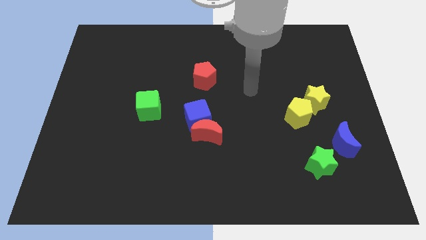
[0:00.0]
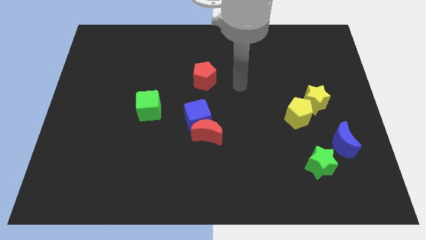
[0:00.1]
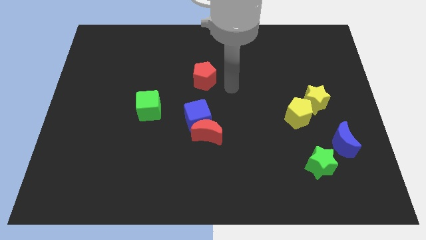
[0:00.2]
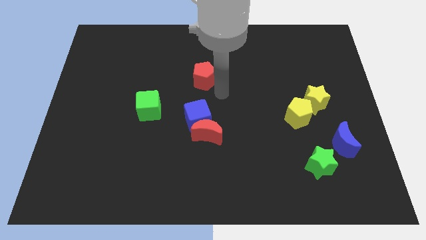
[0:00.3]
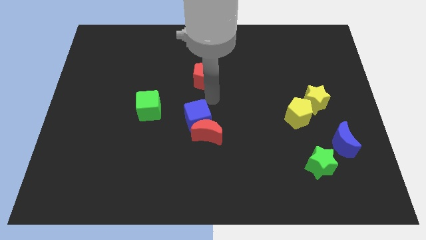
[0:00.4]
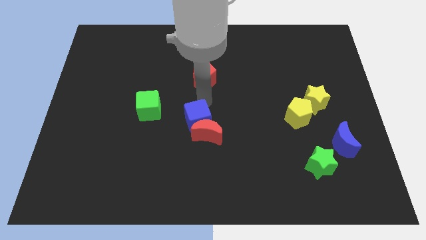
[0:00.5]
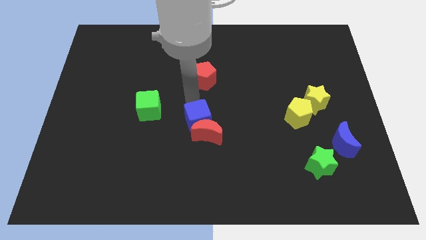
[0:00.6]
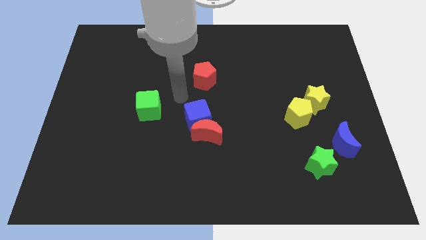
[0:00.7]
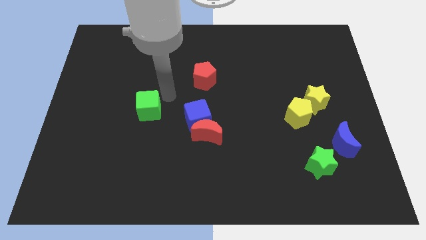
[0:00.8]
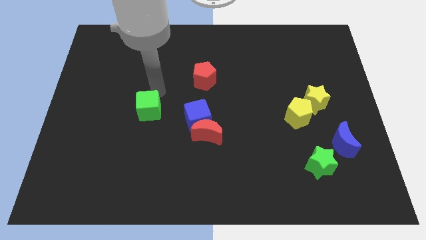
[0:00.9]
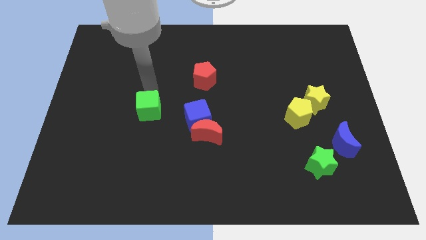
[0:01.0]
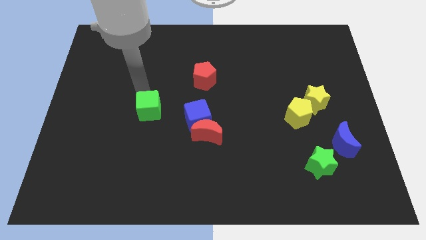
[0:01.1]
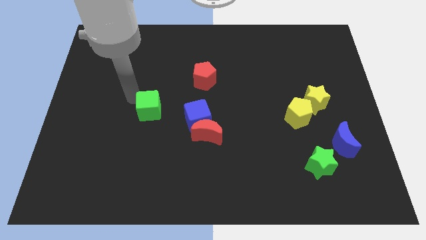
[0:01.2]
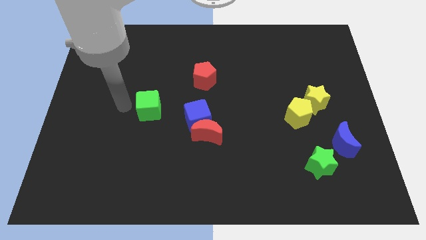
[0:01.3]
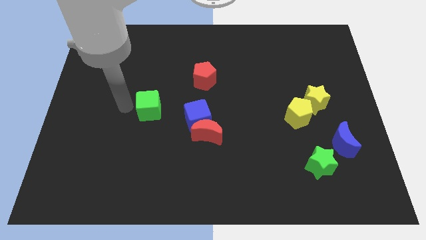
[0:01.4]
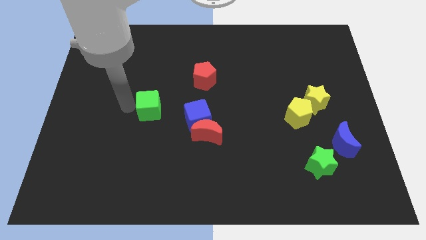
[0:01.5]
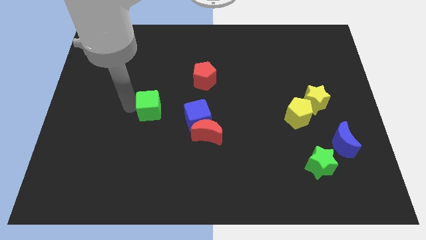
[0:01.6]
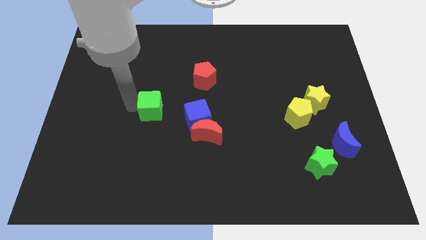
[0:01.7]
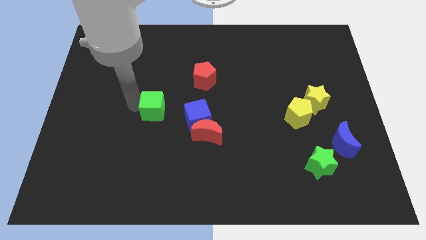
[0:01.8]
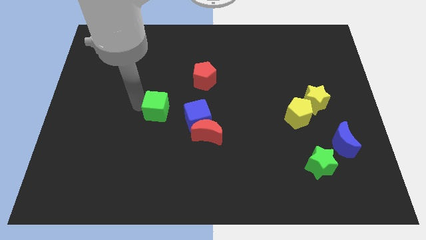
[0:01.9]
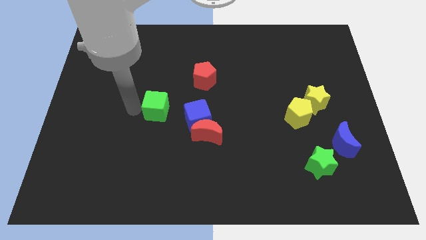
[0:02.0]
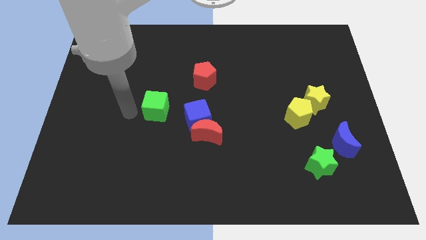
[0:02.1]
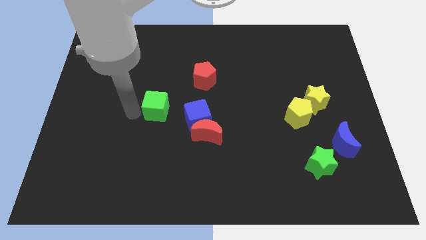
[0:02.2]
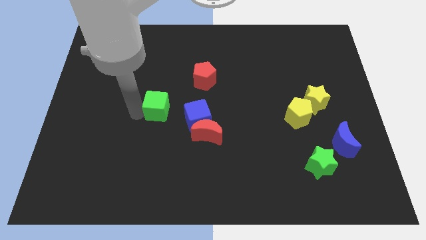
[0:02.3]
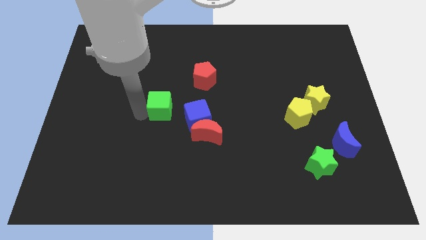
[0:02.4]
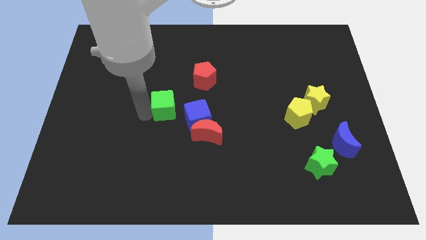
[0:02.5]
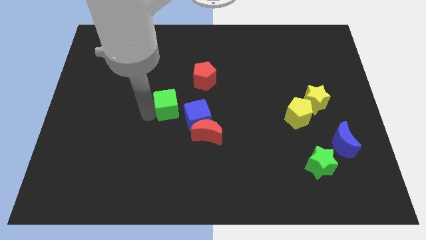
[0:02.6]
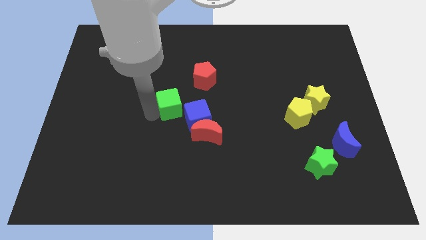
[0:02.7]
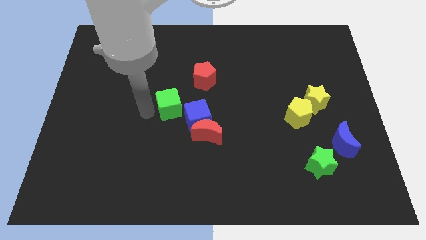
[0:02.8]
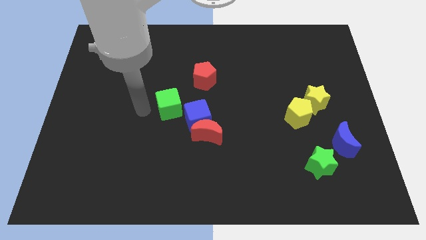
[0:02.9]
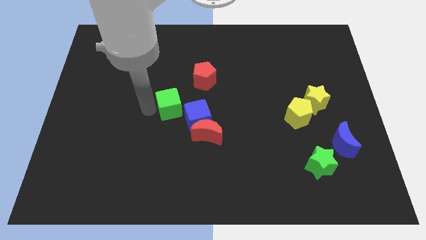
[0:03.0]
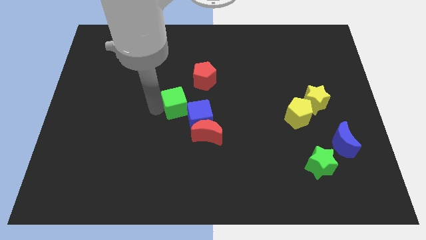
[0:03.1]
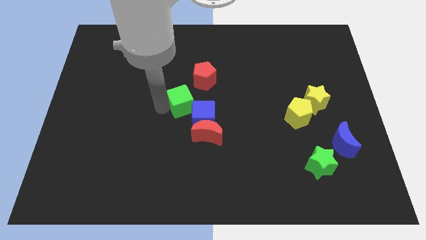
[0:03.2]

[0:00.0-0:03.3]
push the green cube to the right a bit

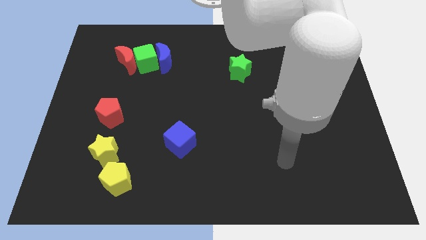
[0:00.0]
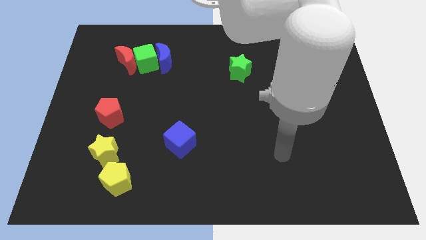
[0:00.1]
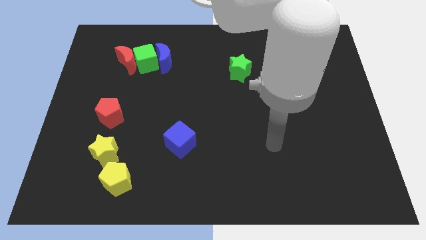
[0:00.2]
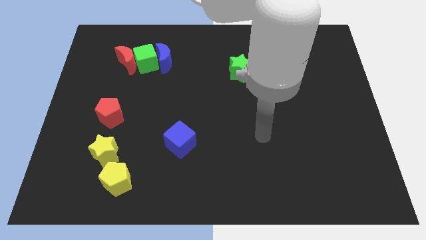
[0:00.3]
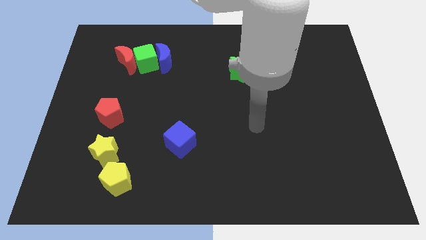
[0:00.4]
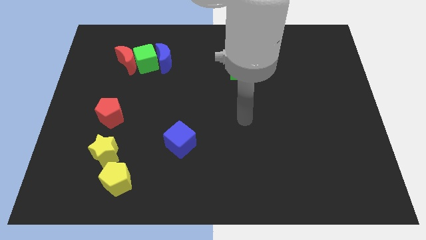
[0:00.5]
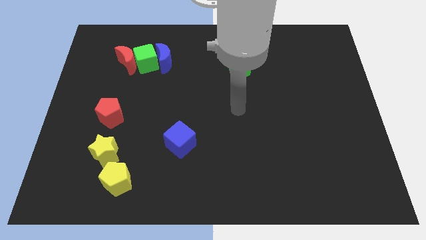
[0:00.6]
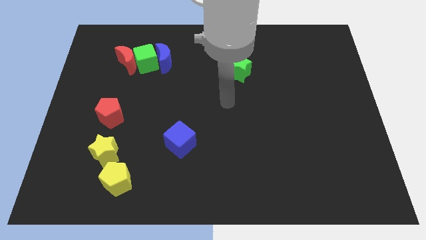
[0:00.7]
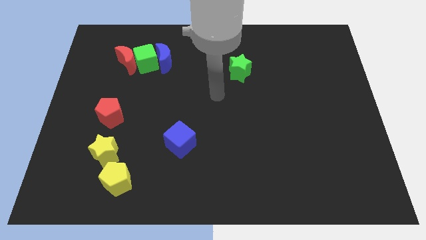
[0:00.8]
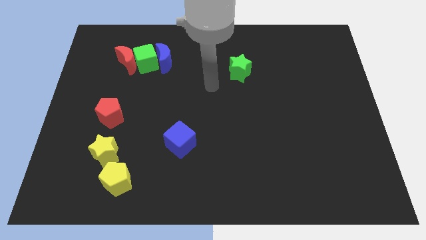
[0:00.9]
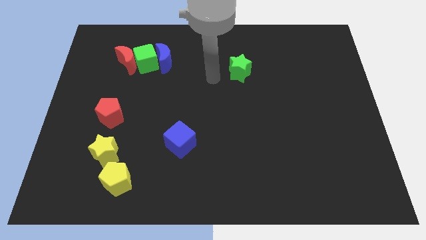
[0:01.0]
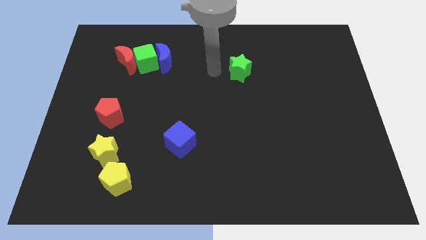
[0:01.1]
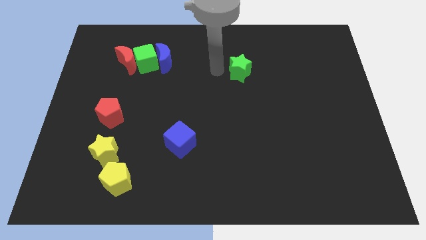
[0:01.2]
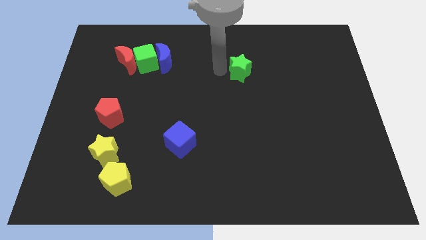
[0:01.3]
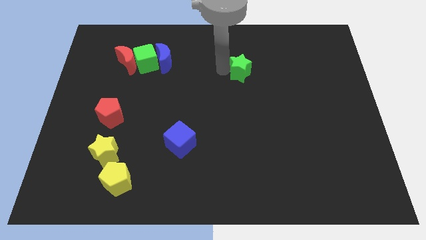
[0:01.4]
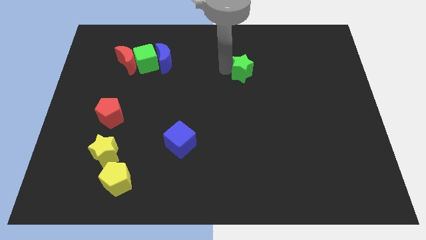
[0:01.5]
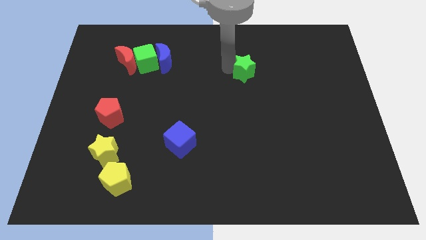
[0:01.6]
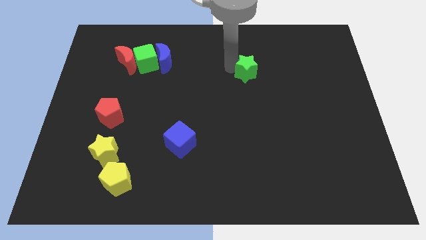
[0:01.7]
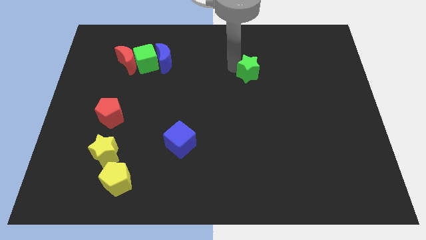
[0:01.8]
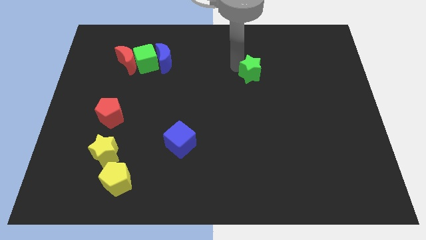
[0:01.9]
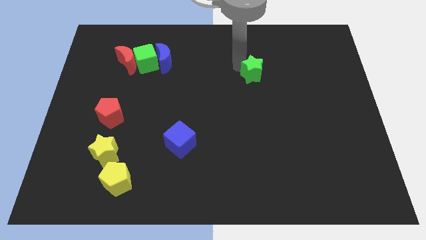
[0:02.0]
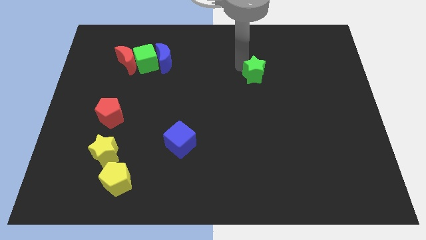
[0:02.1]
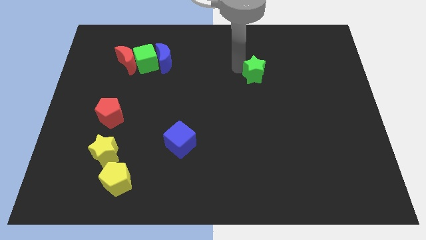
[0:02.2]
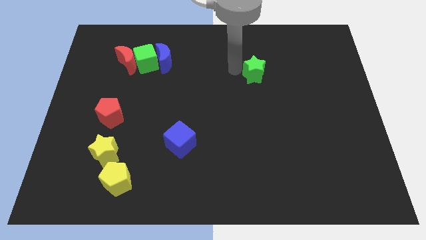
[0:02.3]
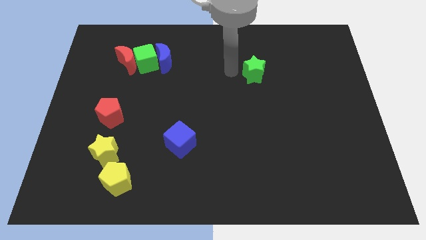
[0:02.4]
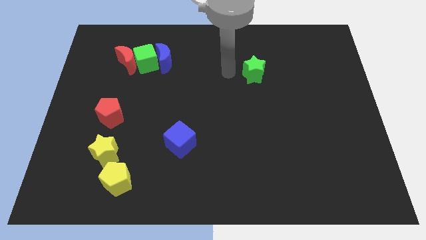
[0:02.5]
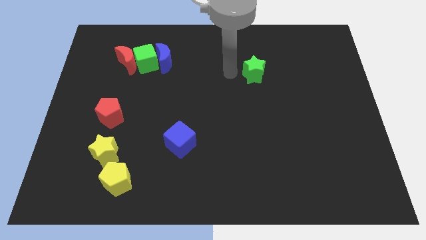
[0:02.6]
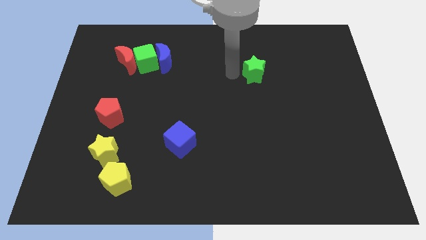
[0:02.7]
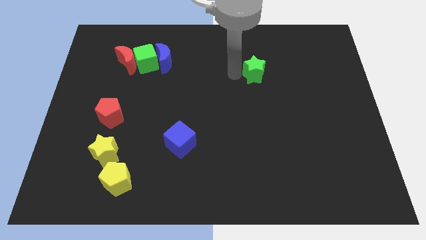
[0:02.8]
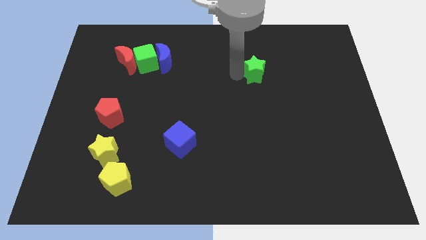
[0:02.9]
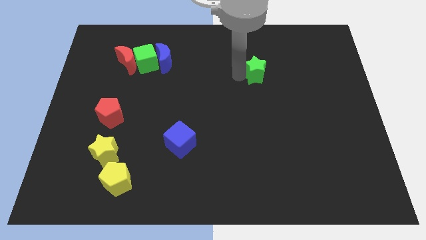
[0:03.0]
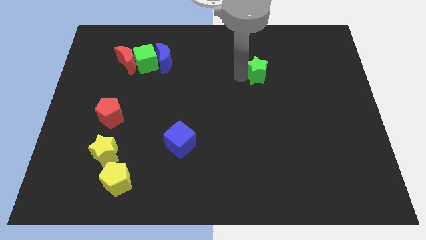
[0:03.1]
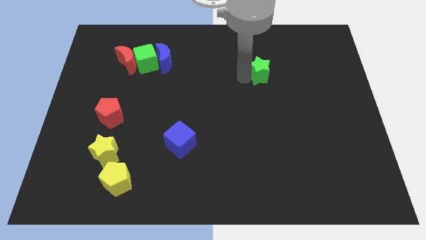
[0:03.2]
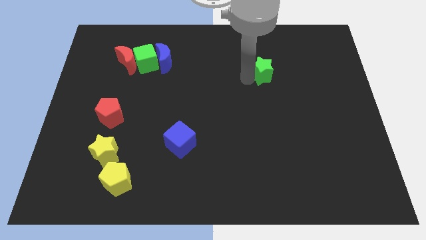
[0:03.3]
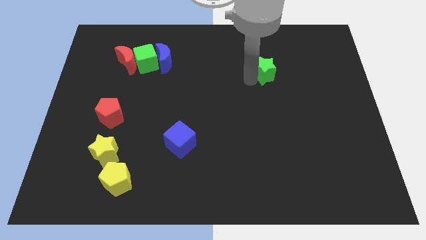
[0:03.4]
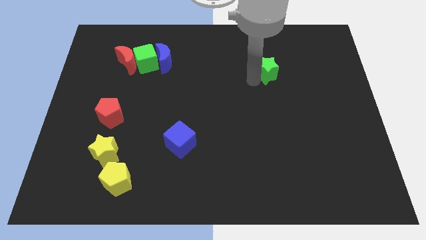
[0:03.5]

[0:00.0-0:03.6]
slightly slide the green star to the right

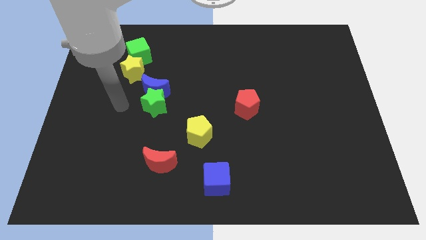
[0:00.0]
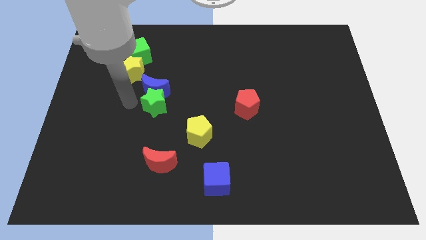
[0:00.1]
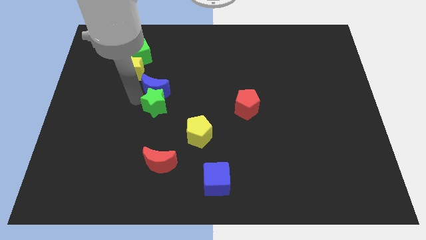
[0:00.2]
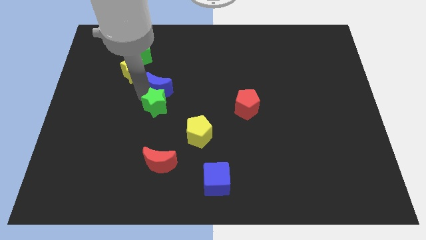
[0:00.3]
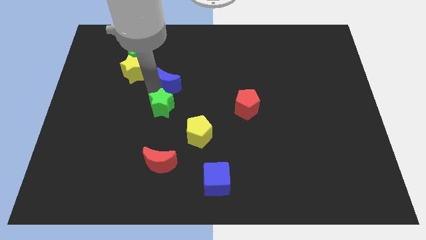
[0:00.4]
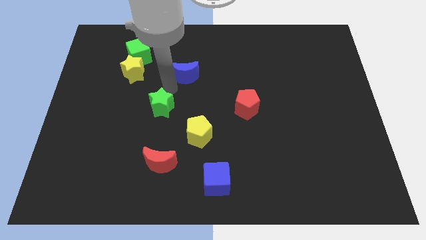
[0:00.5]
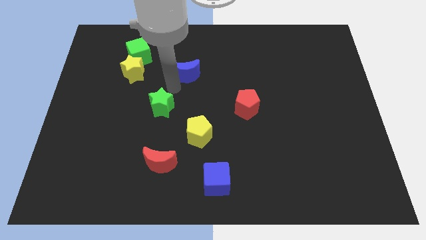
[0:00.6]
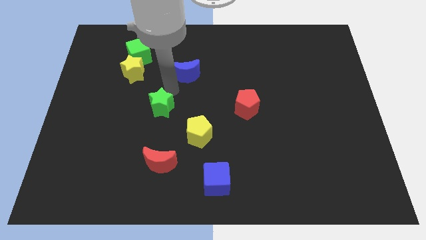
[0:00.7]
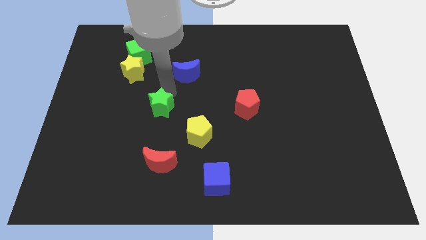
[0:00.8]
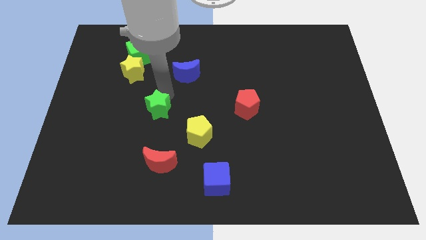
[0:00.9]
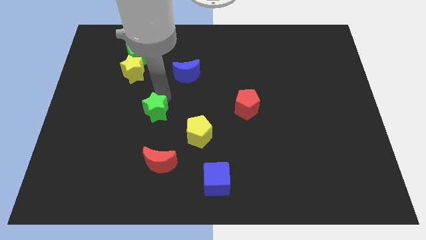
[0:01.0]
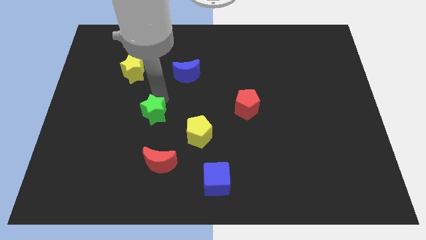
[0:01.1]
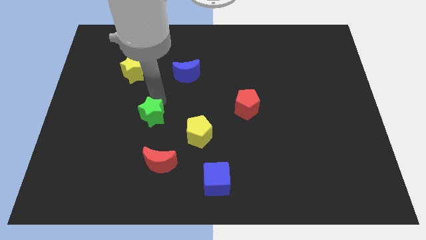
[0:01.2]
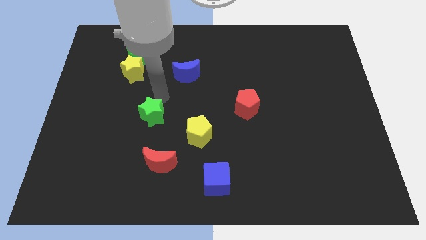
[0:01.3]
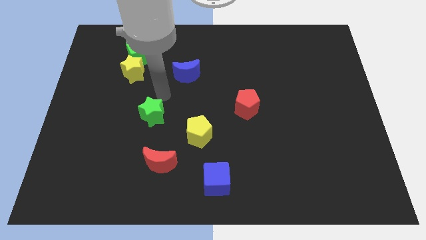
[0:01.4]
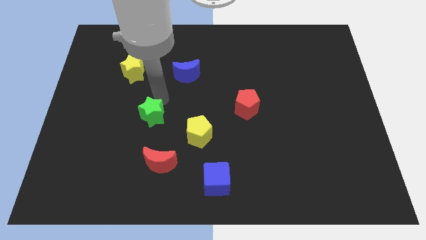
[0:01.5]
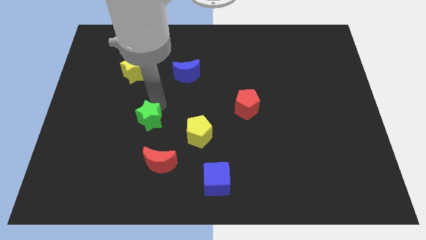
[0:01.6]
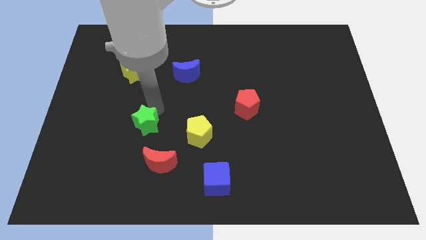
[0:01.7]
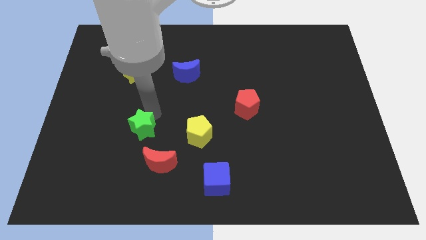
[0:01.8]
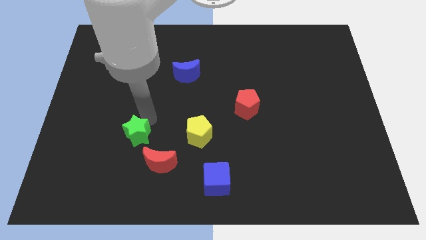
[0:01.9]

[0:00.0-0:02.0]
push the green star a bit down

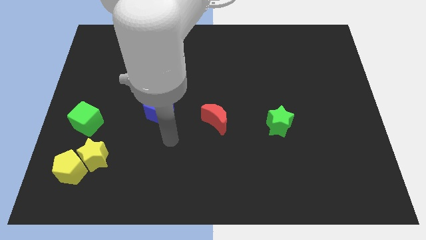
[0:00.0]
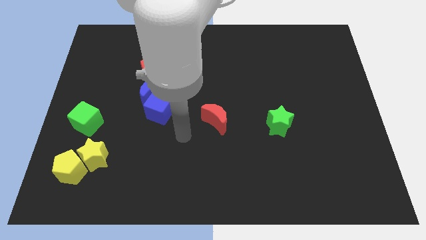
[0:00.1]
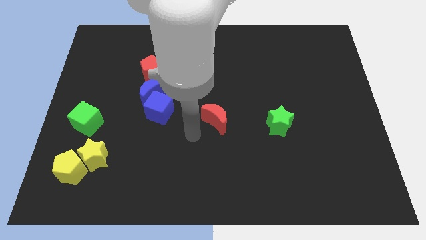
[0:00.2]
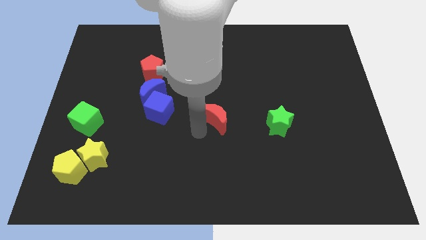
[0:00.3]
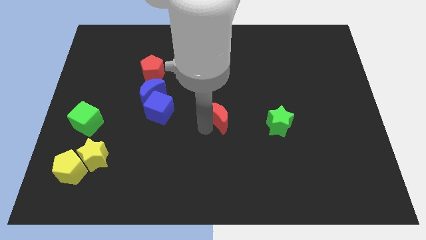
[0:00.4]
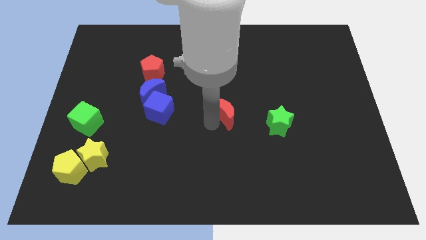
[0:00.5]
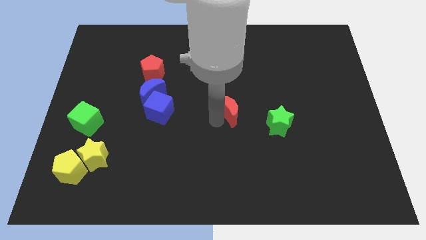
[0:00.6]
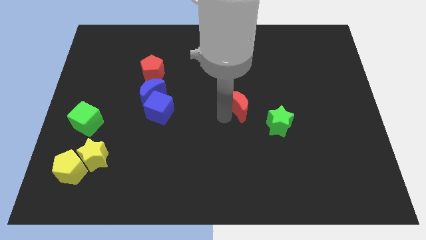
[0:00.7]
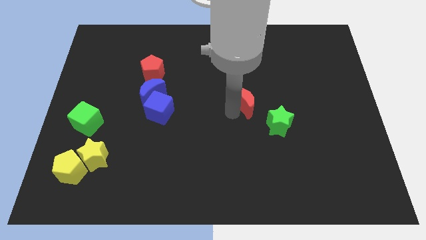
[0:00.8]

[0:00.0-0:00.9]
slightly slide the red moon diagonally upwards and right
